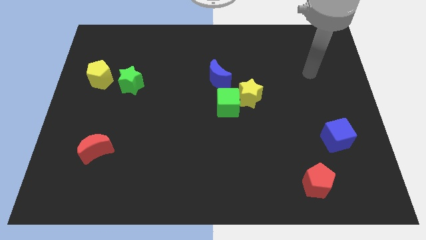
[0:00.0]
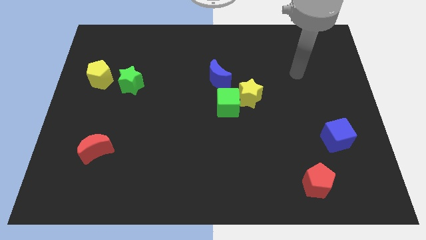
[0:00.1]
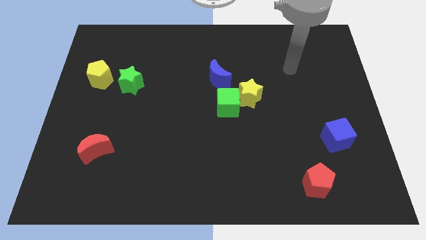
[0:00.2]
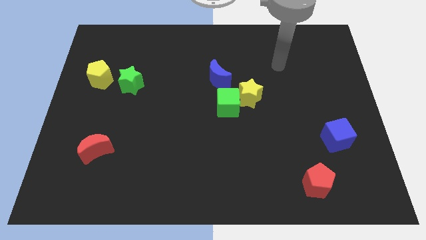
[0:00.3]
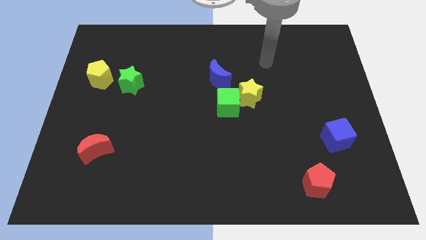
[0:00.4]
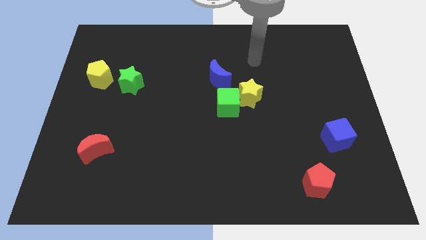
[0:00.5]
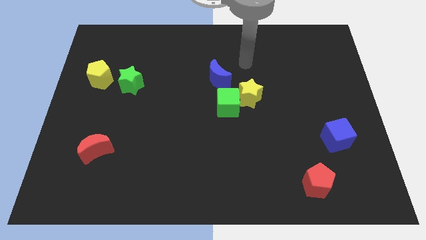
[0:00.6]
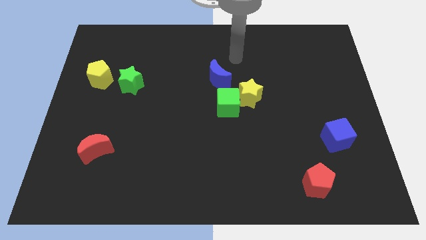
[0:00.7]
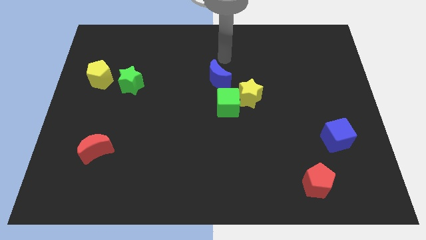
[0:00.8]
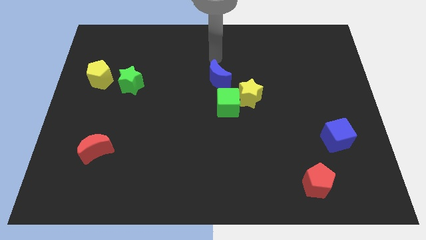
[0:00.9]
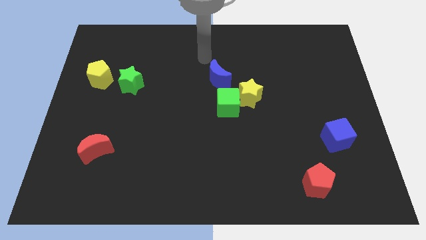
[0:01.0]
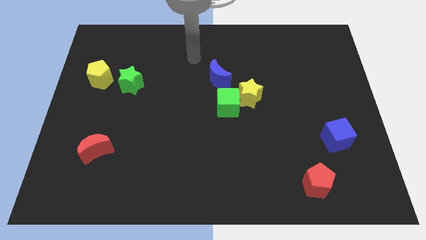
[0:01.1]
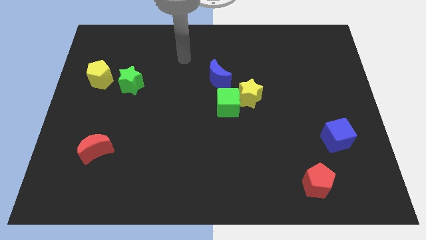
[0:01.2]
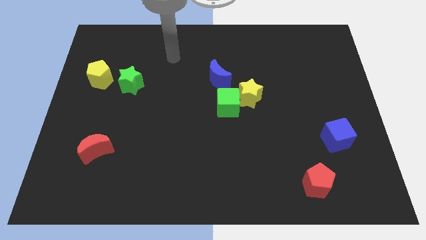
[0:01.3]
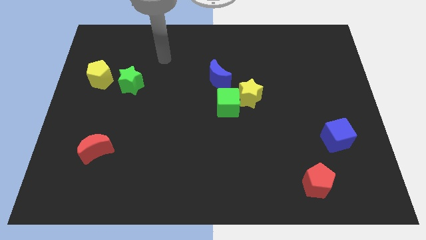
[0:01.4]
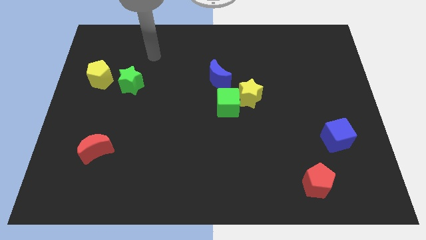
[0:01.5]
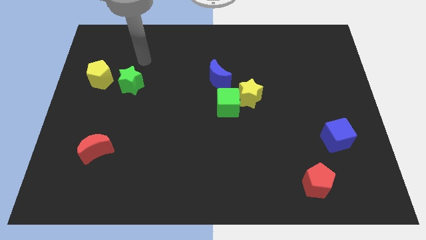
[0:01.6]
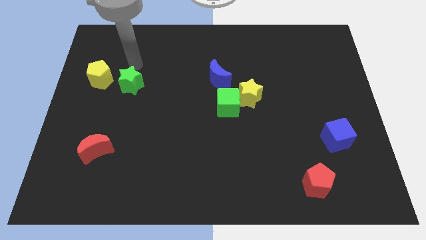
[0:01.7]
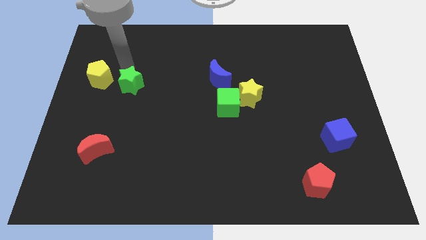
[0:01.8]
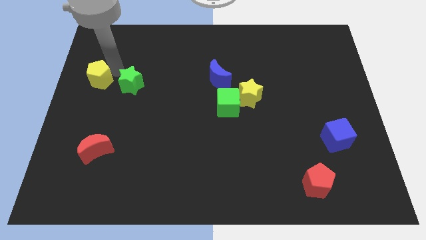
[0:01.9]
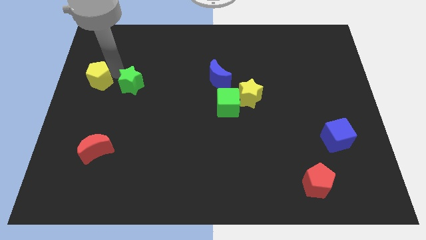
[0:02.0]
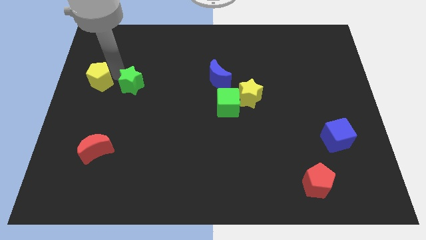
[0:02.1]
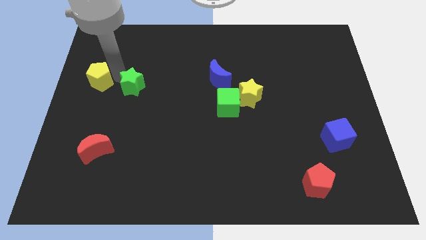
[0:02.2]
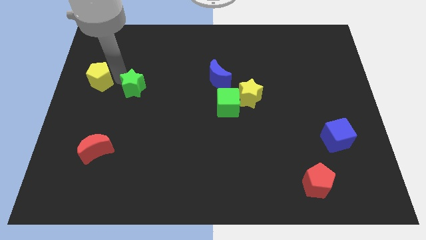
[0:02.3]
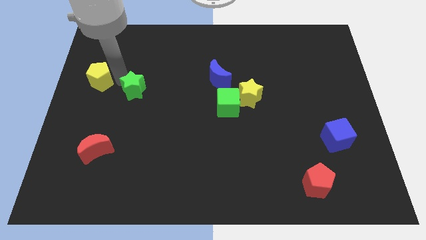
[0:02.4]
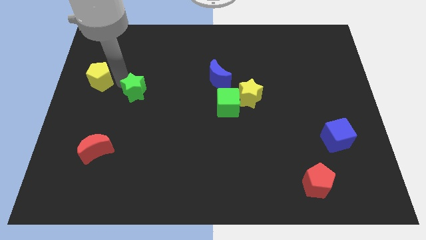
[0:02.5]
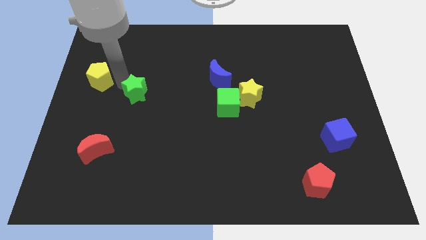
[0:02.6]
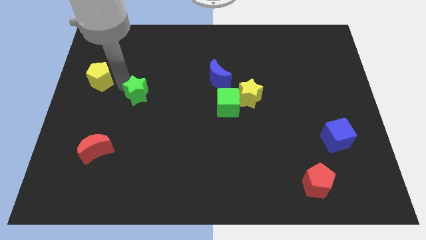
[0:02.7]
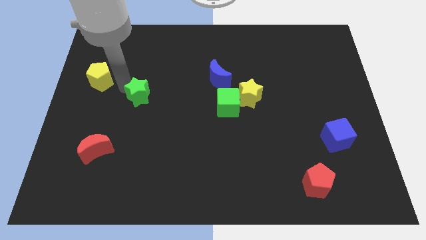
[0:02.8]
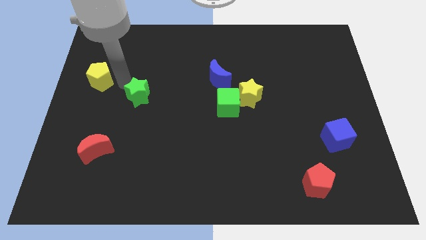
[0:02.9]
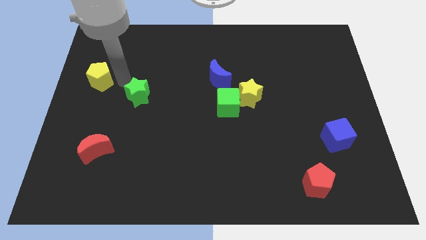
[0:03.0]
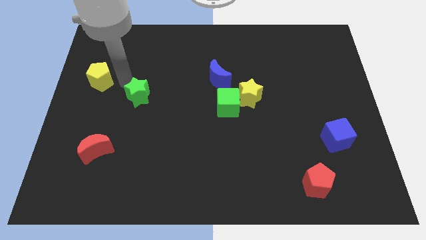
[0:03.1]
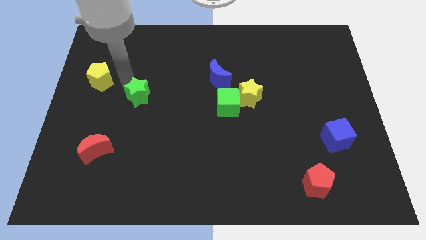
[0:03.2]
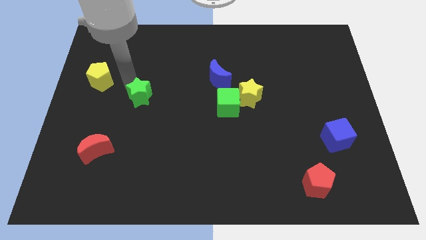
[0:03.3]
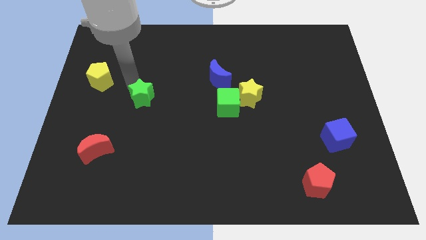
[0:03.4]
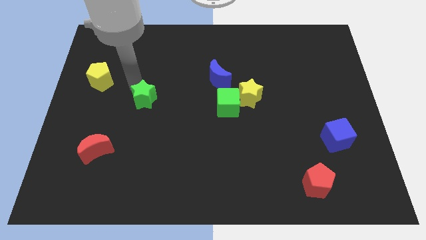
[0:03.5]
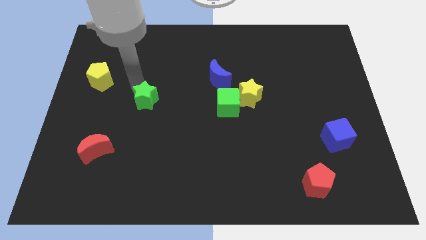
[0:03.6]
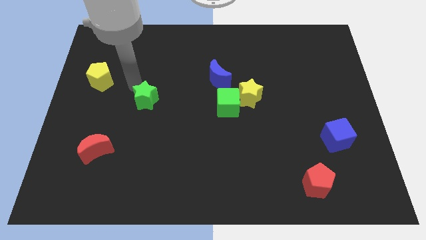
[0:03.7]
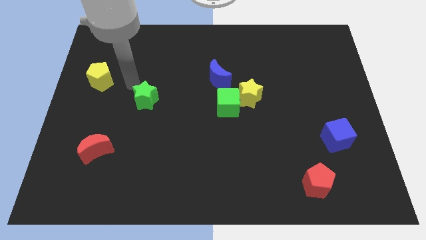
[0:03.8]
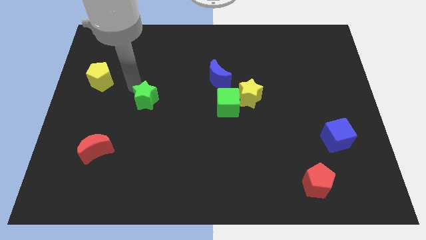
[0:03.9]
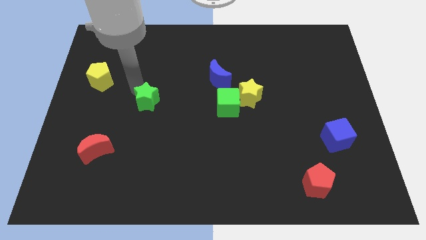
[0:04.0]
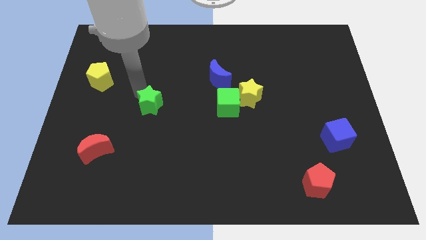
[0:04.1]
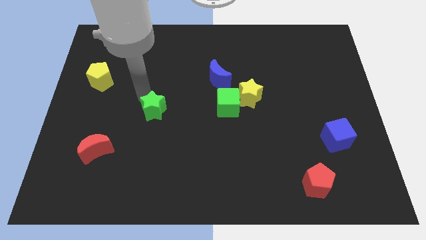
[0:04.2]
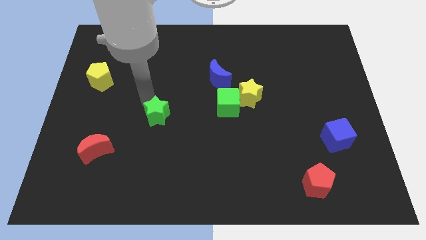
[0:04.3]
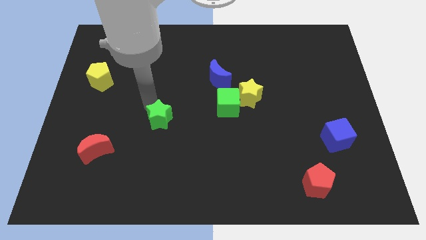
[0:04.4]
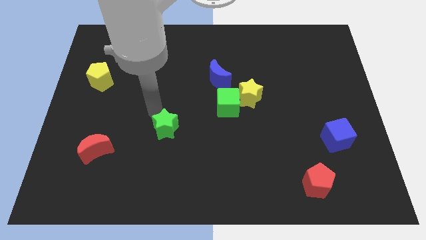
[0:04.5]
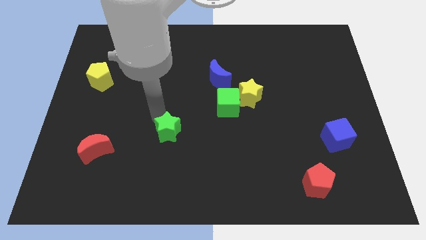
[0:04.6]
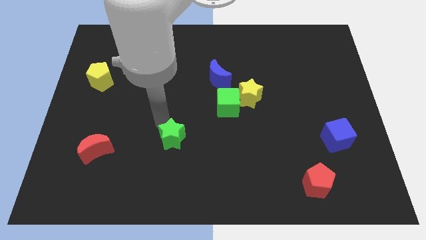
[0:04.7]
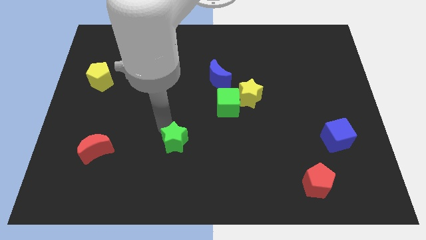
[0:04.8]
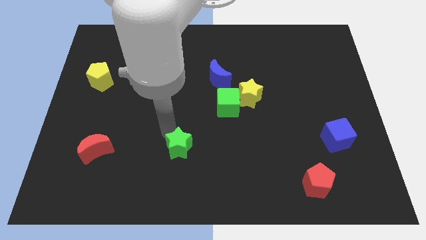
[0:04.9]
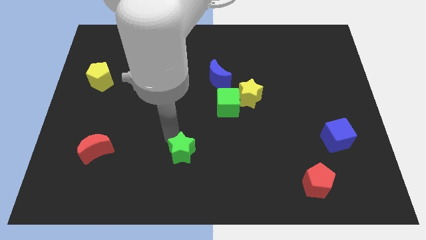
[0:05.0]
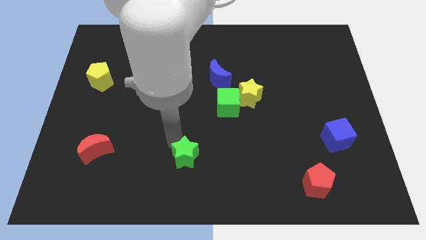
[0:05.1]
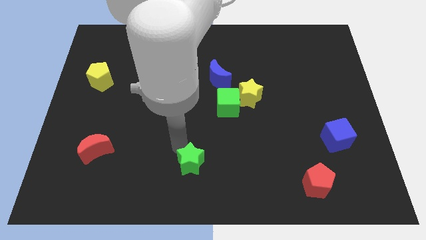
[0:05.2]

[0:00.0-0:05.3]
push the green star to the bottom
